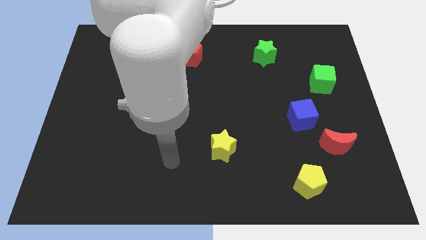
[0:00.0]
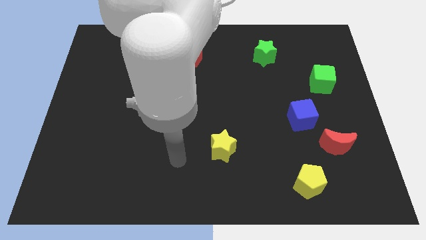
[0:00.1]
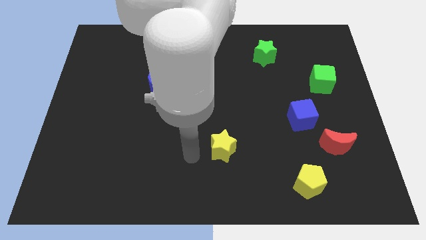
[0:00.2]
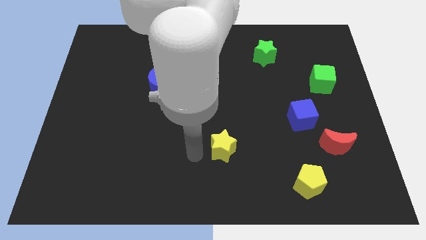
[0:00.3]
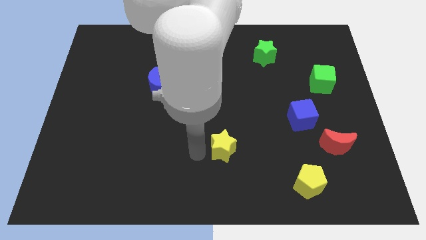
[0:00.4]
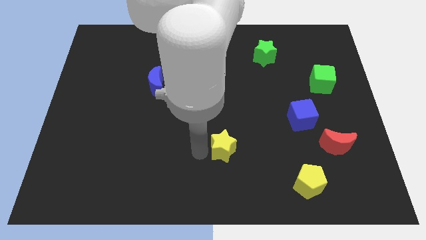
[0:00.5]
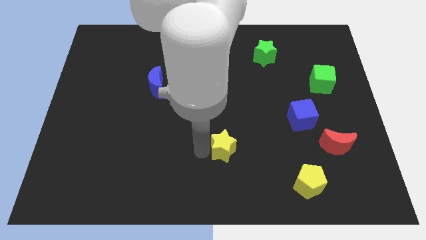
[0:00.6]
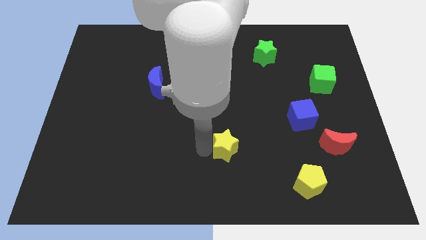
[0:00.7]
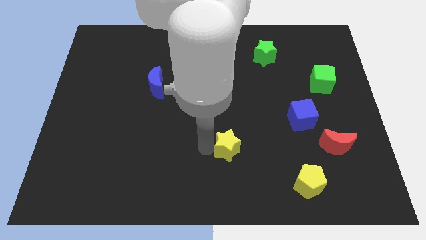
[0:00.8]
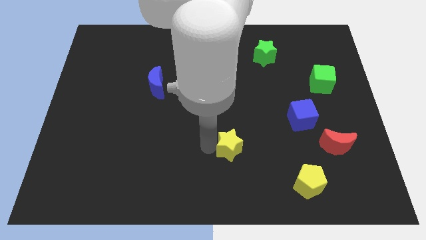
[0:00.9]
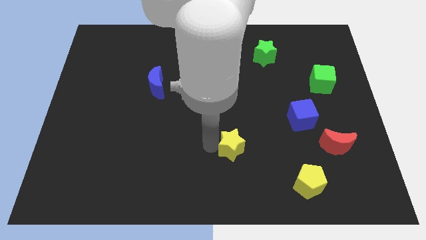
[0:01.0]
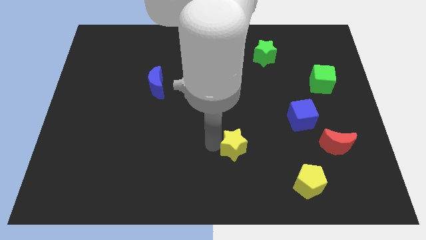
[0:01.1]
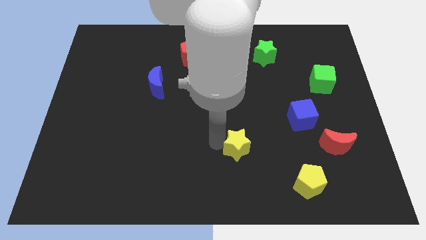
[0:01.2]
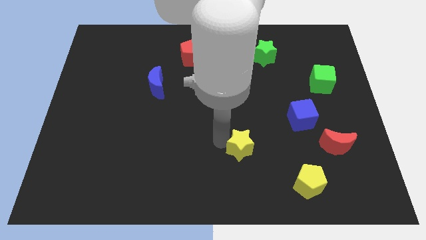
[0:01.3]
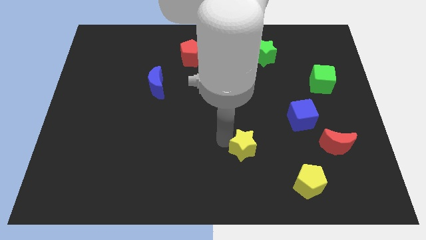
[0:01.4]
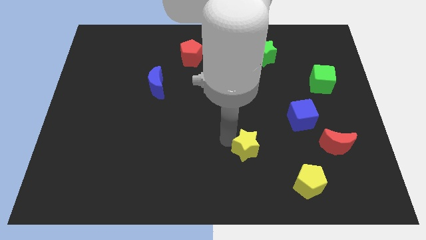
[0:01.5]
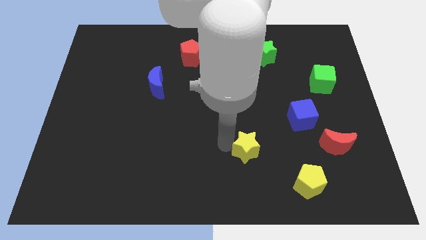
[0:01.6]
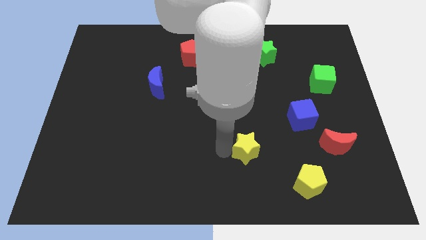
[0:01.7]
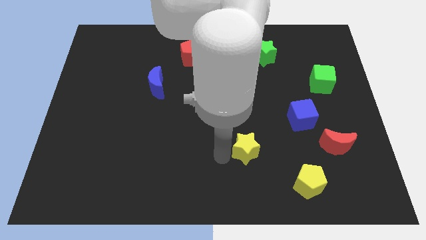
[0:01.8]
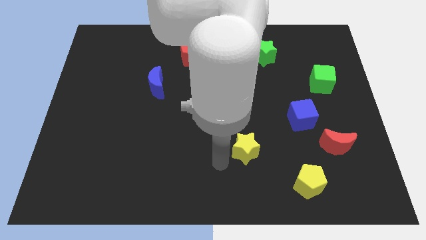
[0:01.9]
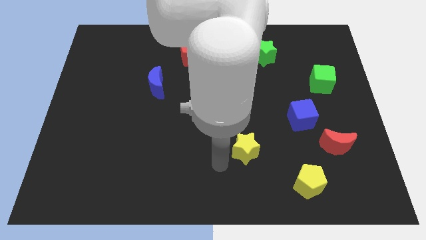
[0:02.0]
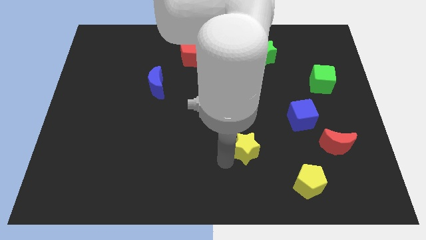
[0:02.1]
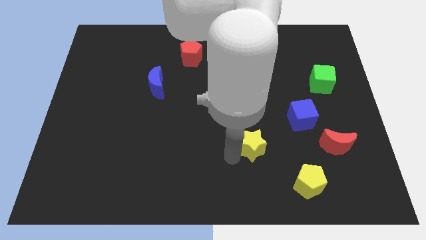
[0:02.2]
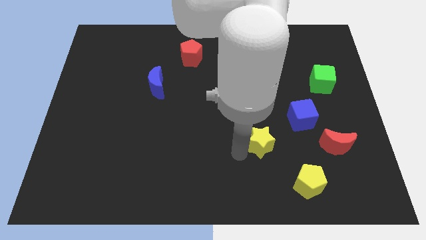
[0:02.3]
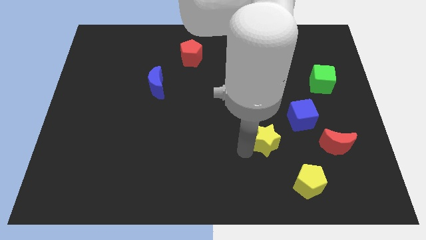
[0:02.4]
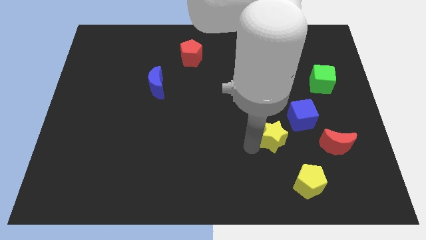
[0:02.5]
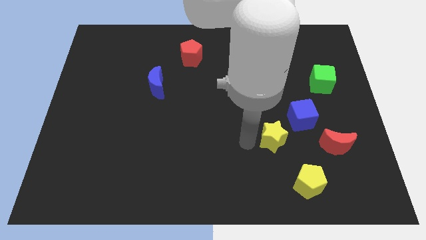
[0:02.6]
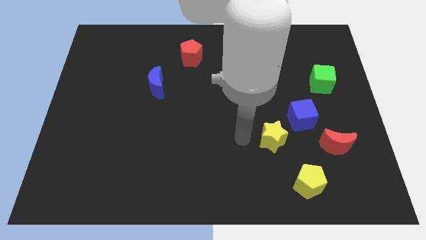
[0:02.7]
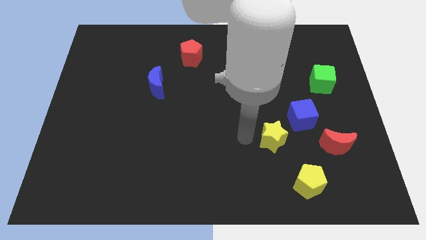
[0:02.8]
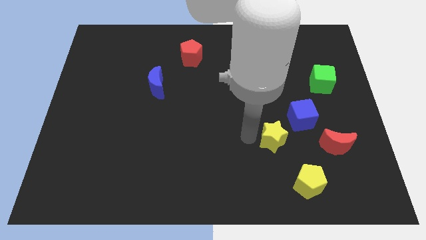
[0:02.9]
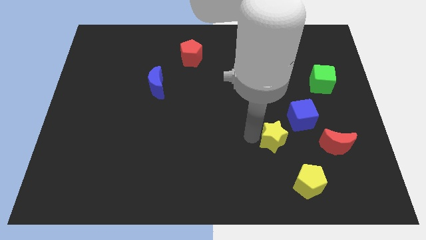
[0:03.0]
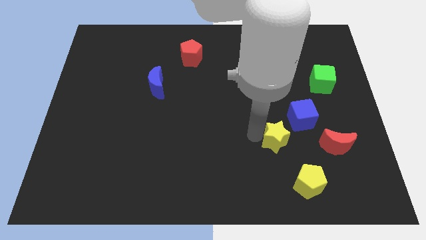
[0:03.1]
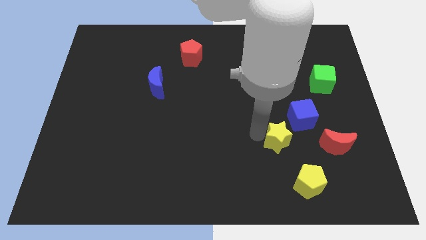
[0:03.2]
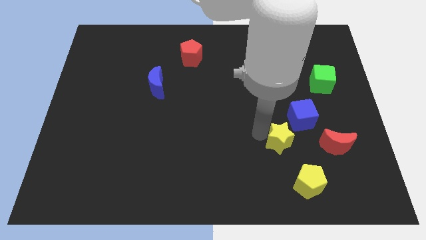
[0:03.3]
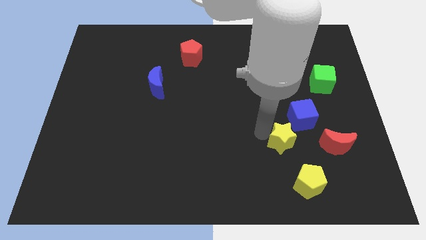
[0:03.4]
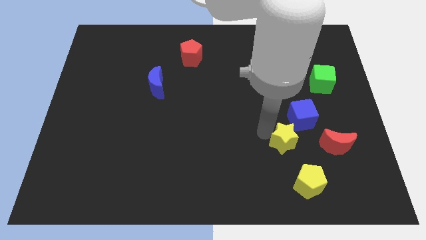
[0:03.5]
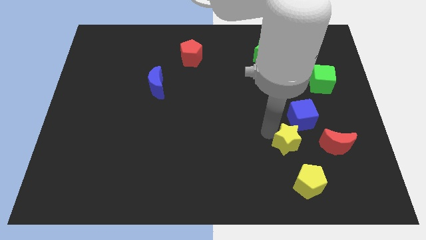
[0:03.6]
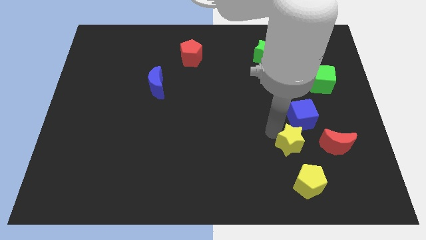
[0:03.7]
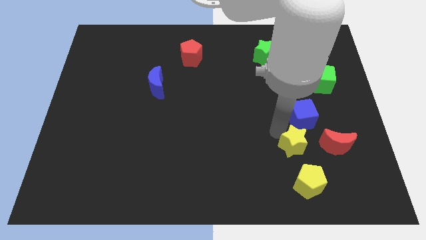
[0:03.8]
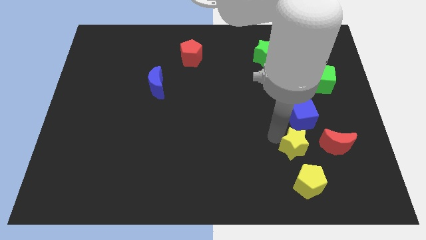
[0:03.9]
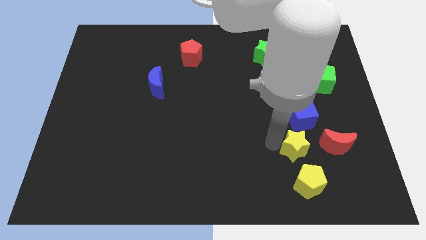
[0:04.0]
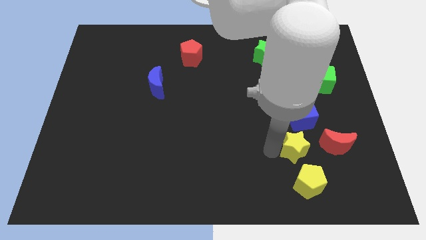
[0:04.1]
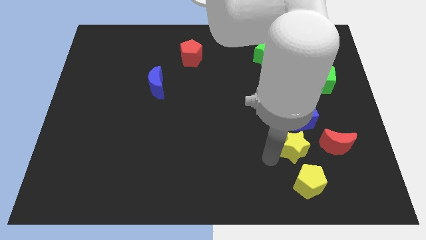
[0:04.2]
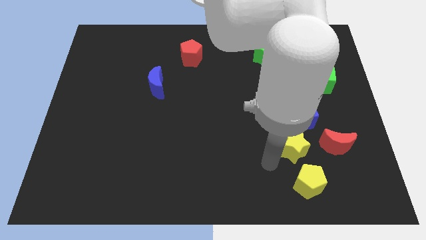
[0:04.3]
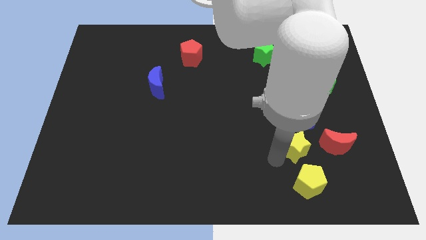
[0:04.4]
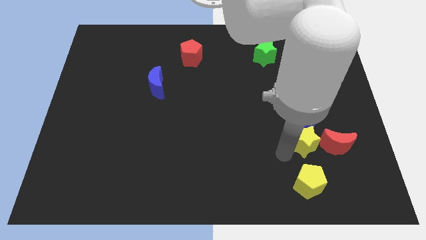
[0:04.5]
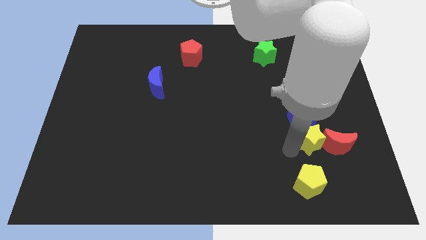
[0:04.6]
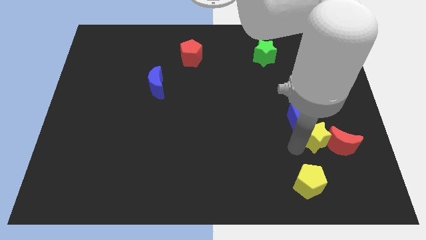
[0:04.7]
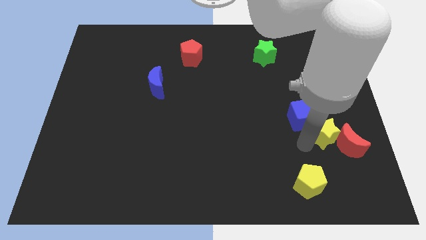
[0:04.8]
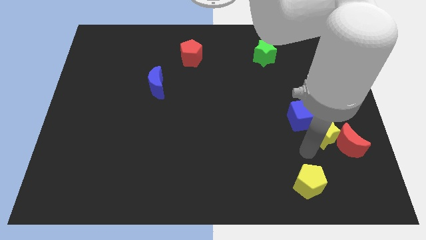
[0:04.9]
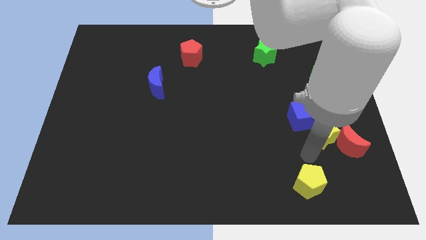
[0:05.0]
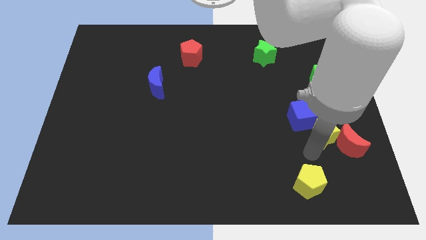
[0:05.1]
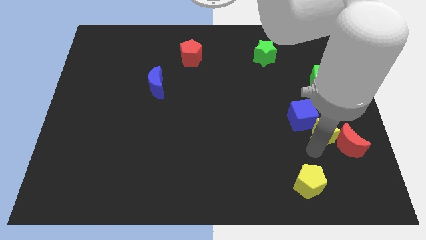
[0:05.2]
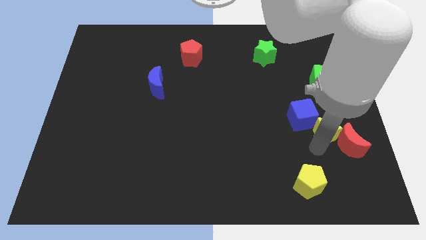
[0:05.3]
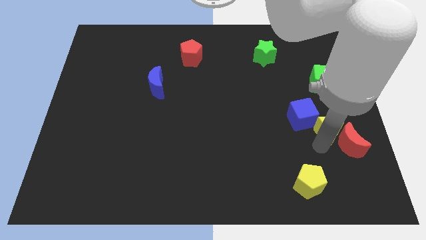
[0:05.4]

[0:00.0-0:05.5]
move the yellow star to the top side of the red moon

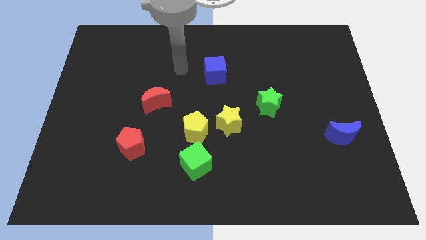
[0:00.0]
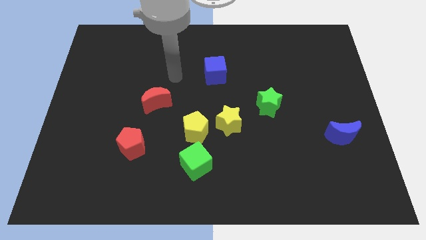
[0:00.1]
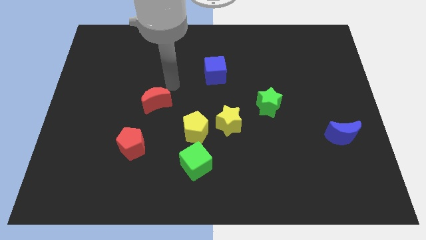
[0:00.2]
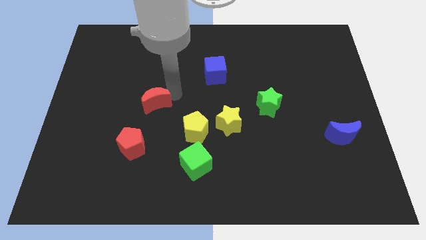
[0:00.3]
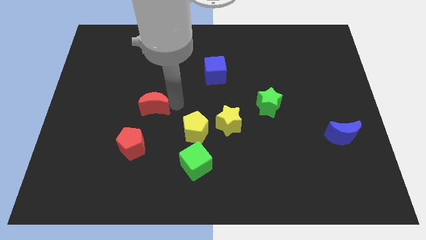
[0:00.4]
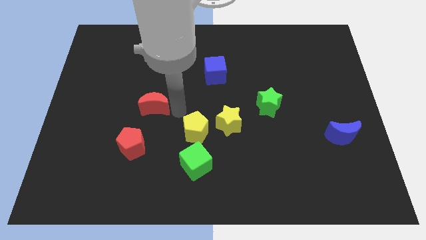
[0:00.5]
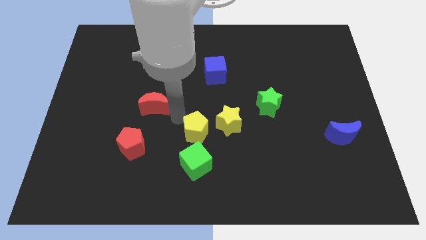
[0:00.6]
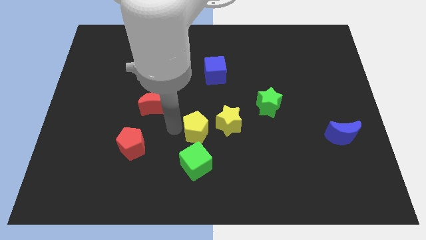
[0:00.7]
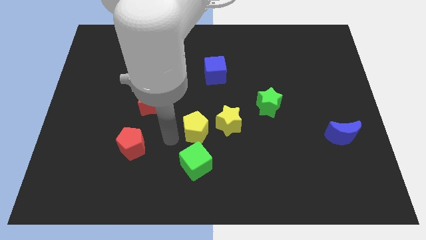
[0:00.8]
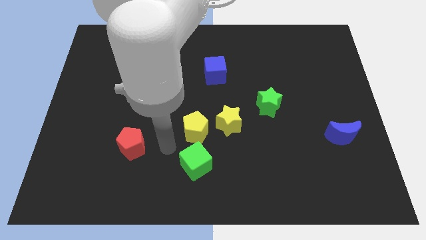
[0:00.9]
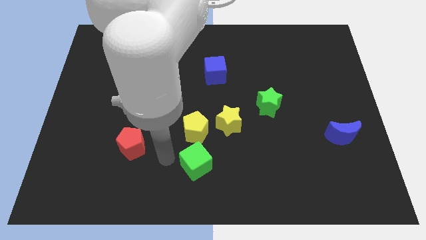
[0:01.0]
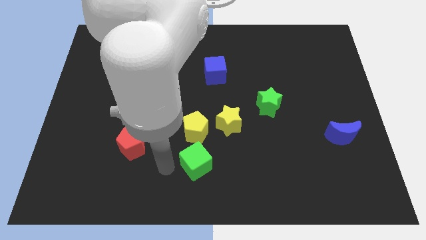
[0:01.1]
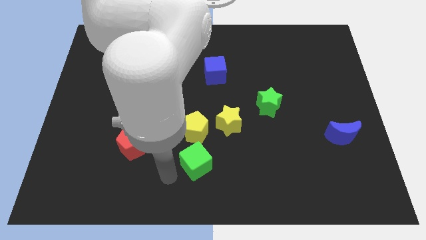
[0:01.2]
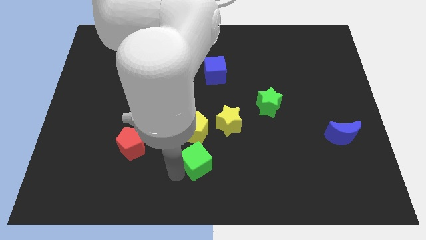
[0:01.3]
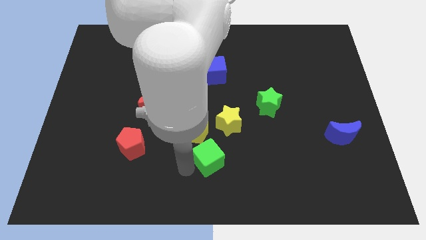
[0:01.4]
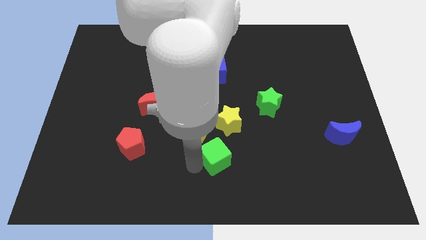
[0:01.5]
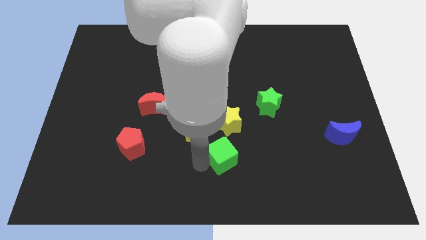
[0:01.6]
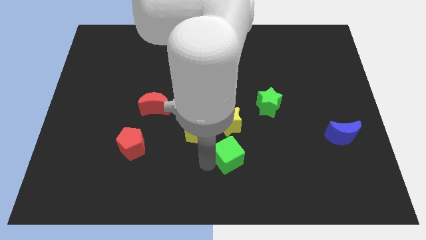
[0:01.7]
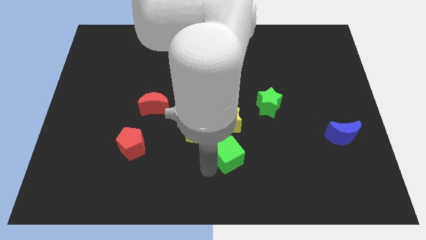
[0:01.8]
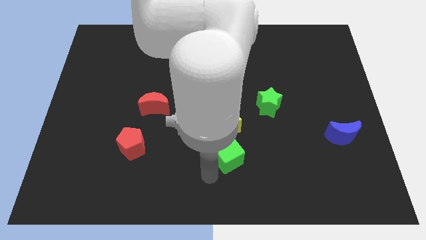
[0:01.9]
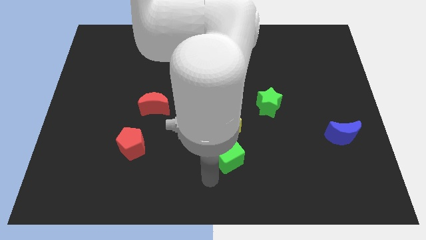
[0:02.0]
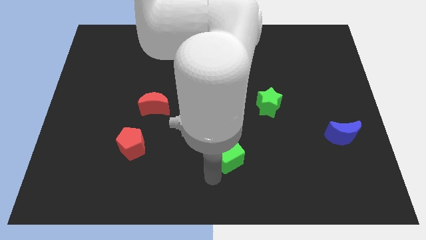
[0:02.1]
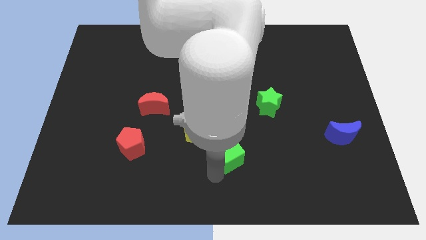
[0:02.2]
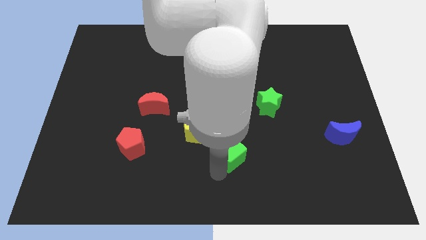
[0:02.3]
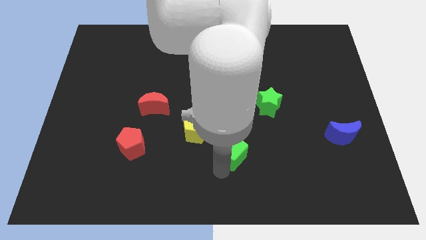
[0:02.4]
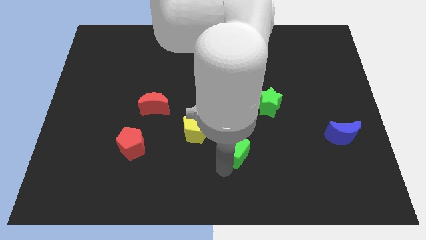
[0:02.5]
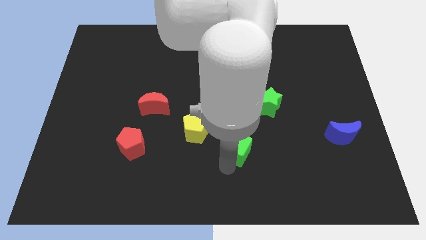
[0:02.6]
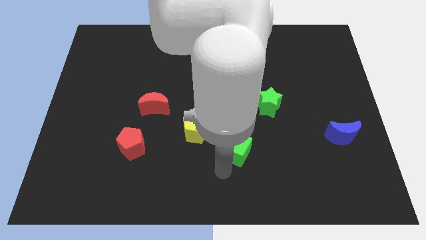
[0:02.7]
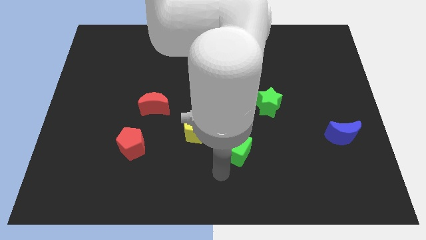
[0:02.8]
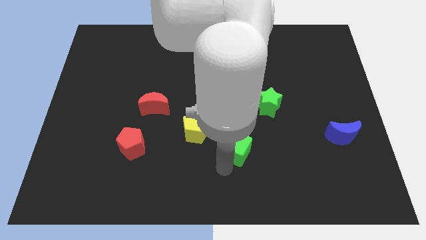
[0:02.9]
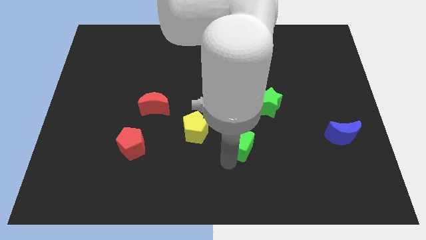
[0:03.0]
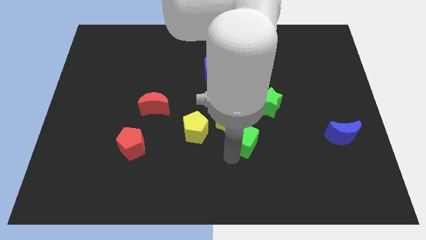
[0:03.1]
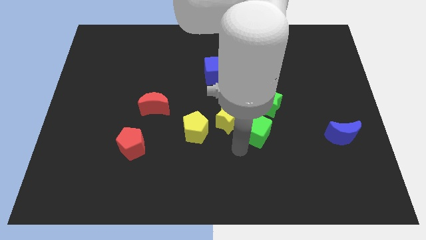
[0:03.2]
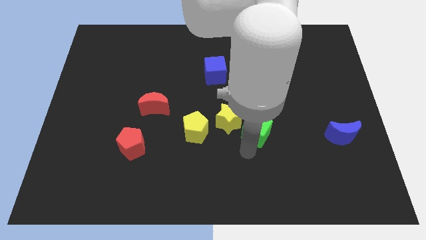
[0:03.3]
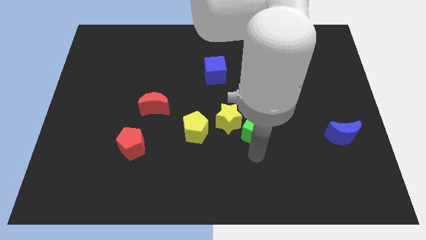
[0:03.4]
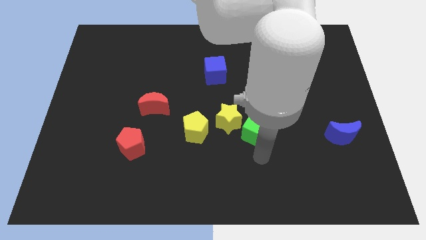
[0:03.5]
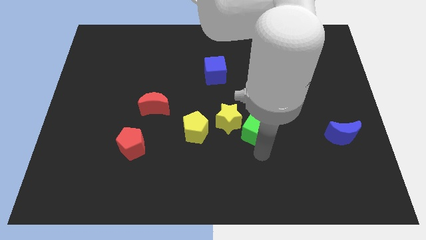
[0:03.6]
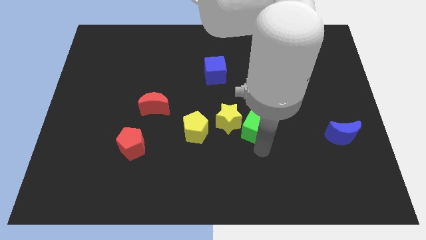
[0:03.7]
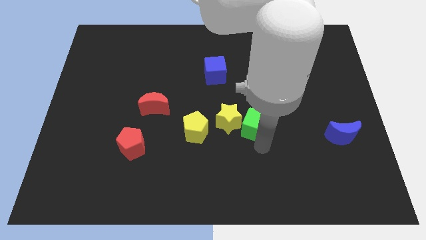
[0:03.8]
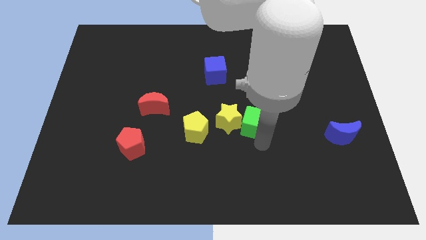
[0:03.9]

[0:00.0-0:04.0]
push the green cube to the top right of the yellow star
